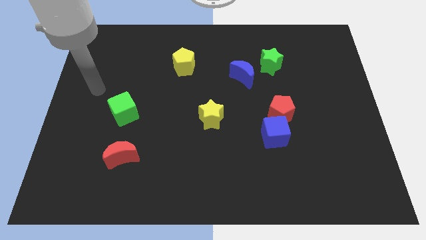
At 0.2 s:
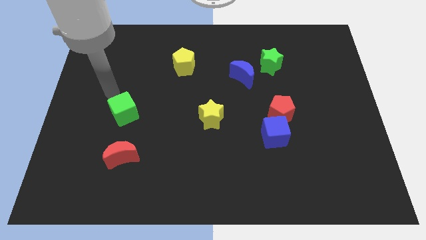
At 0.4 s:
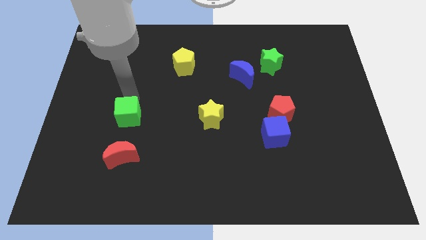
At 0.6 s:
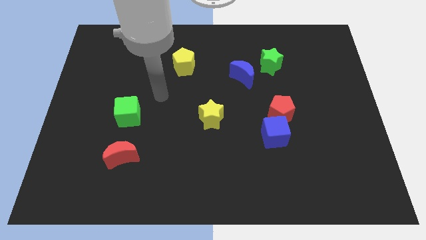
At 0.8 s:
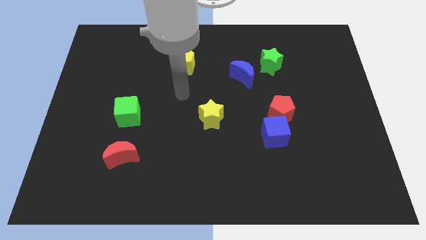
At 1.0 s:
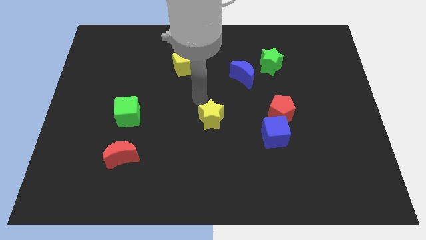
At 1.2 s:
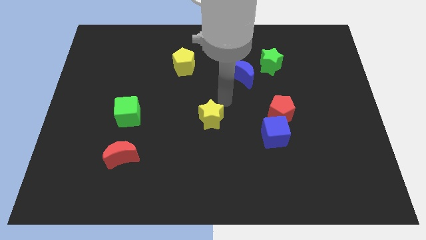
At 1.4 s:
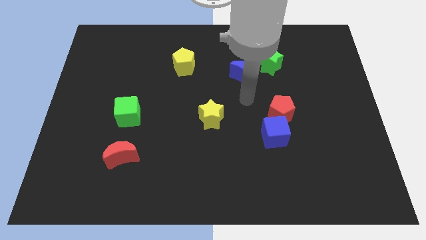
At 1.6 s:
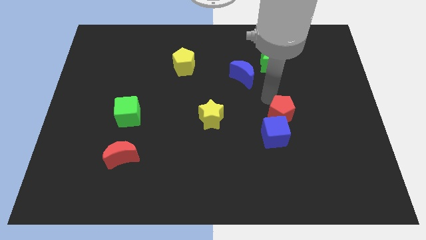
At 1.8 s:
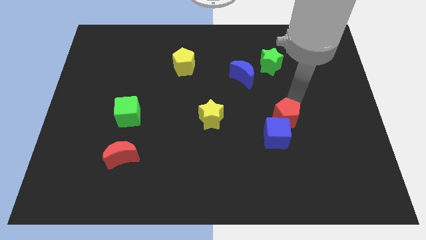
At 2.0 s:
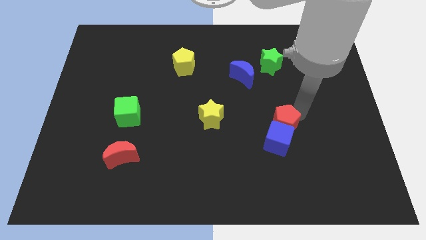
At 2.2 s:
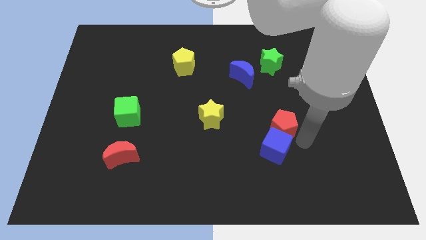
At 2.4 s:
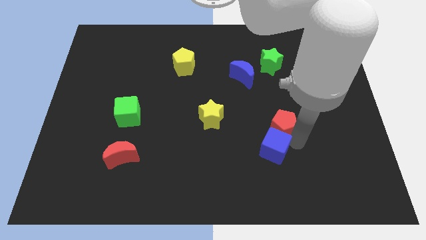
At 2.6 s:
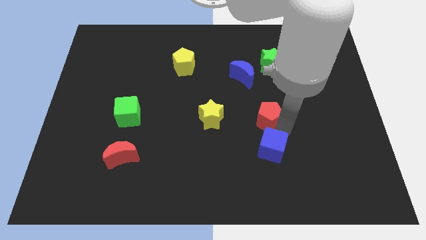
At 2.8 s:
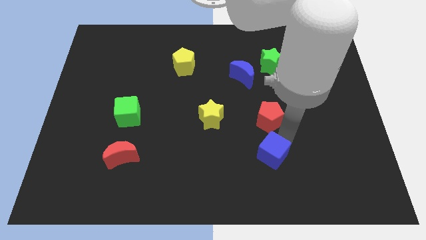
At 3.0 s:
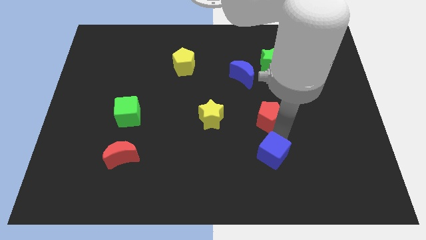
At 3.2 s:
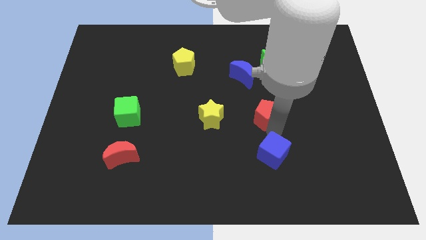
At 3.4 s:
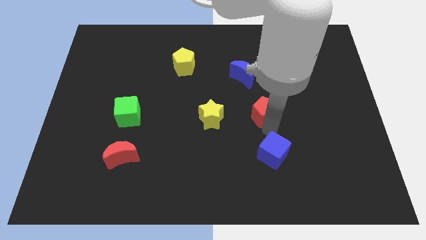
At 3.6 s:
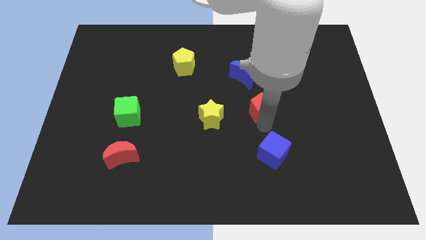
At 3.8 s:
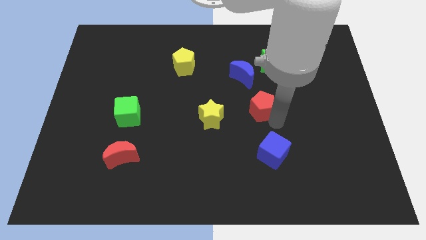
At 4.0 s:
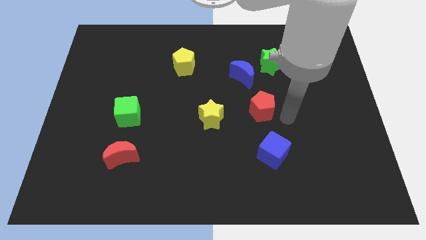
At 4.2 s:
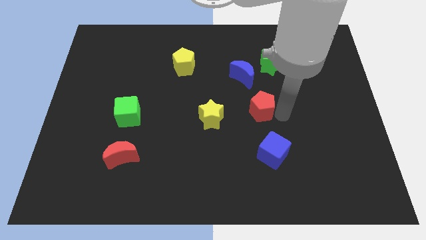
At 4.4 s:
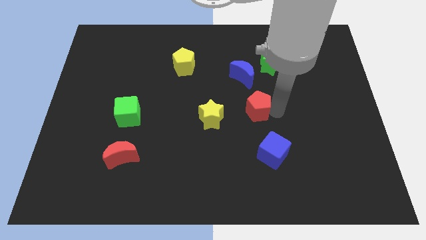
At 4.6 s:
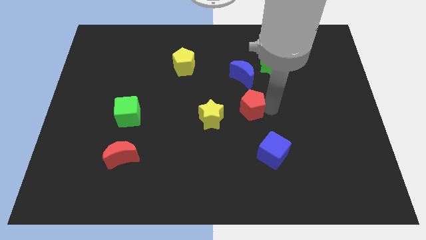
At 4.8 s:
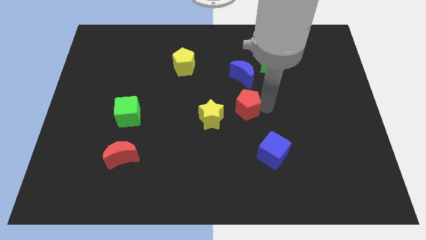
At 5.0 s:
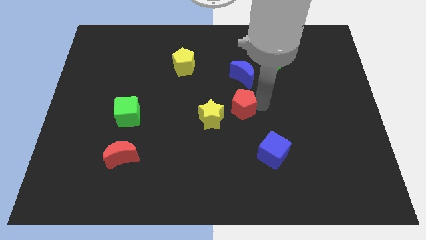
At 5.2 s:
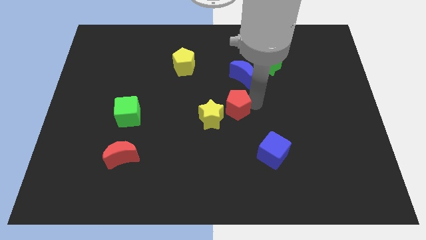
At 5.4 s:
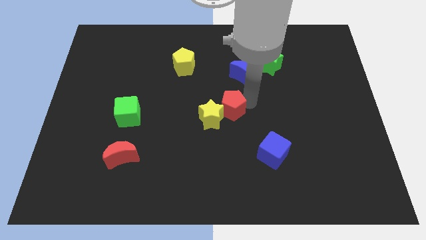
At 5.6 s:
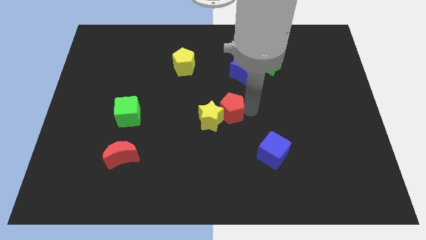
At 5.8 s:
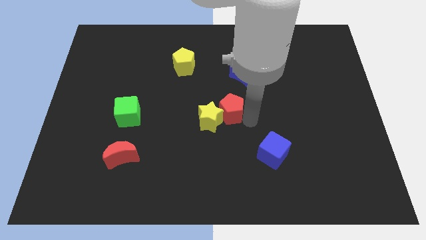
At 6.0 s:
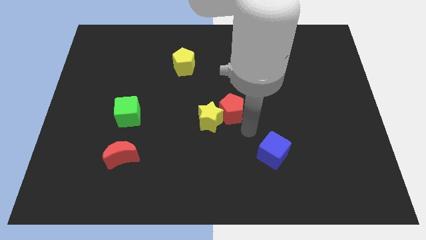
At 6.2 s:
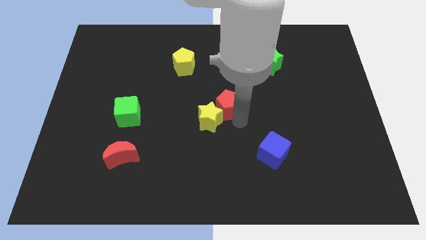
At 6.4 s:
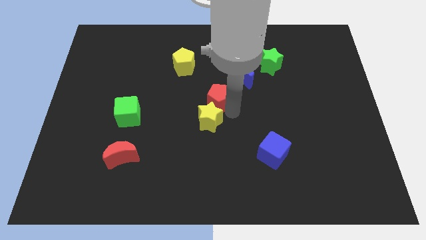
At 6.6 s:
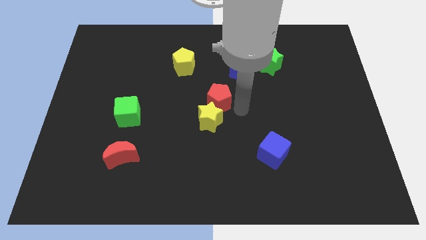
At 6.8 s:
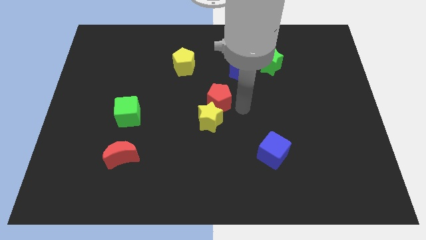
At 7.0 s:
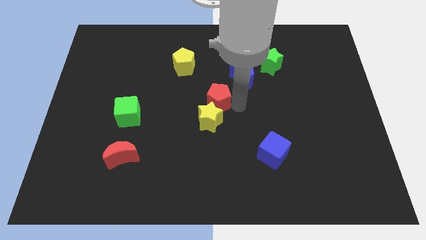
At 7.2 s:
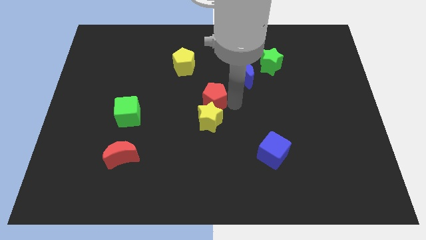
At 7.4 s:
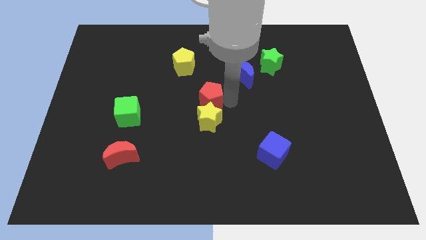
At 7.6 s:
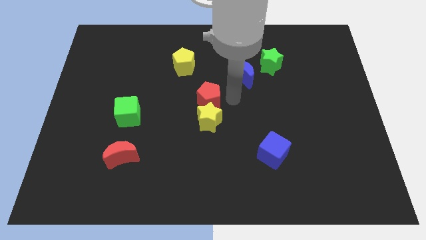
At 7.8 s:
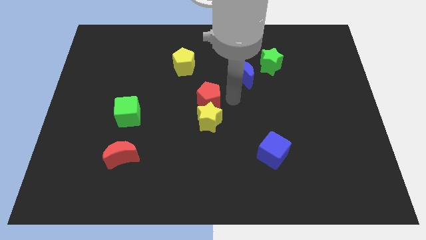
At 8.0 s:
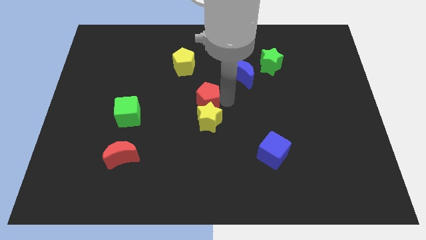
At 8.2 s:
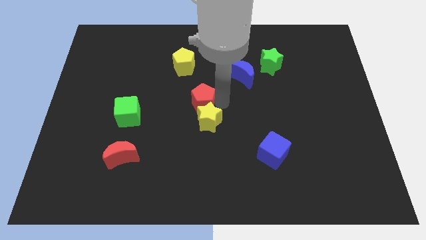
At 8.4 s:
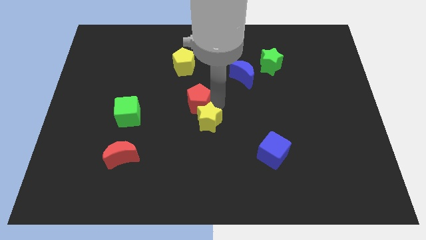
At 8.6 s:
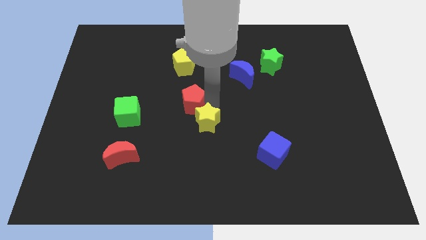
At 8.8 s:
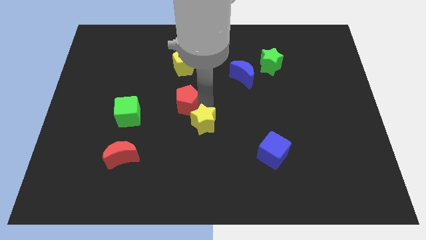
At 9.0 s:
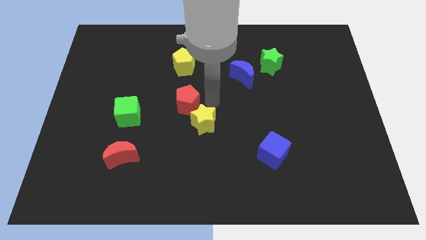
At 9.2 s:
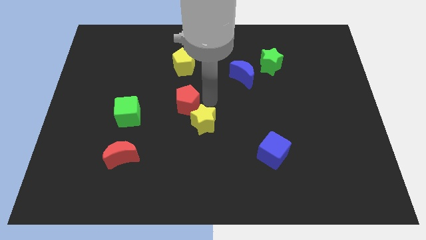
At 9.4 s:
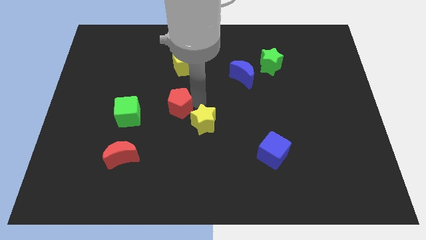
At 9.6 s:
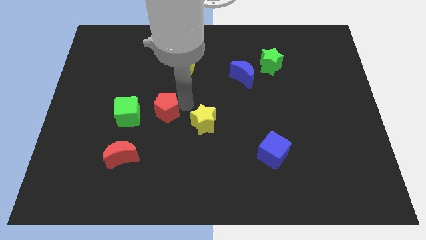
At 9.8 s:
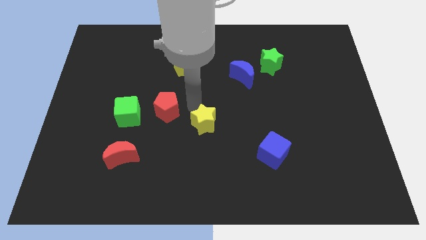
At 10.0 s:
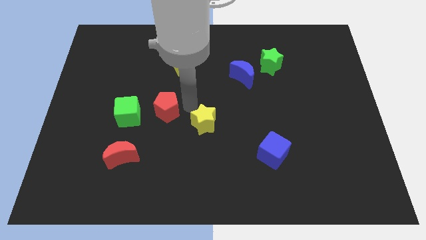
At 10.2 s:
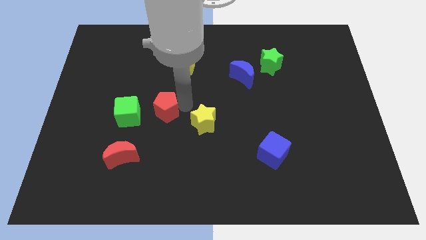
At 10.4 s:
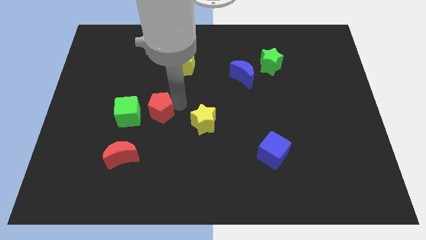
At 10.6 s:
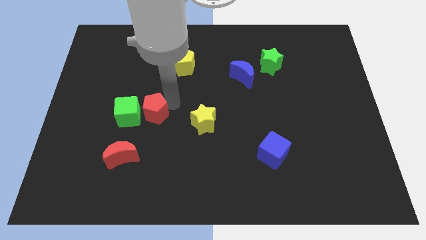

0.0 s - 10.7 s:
slide the red pentagon close to the green cube

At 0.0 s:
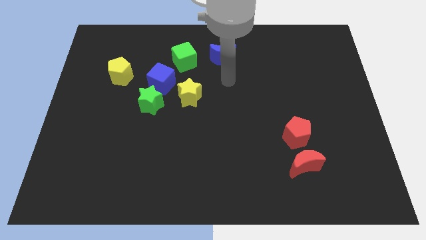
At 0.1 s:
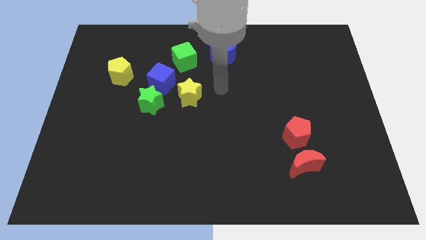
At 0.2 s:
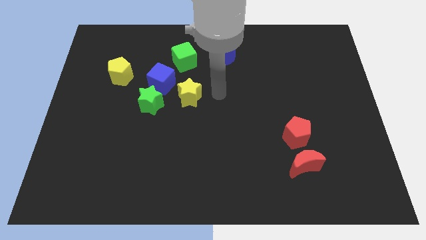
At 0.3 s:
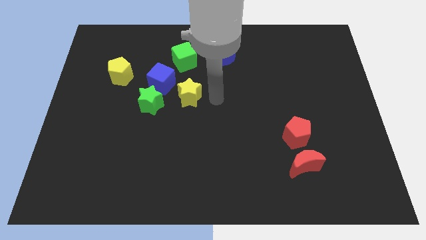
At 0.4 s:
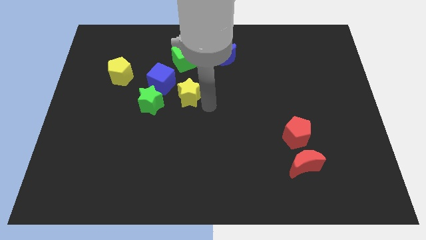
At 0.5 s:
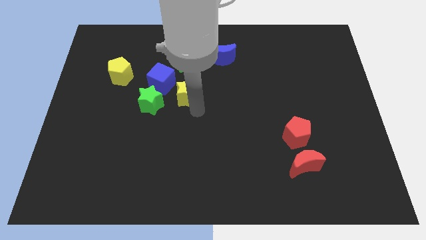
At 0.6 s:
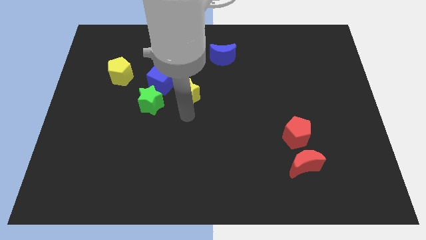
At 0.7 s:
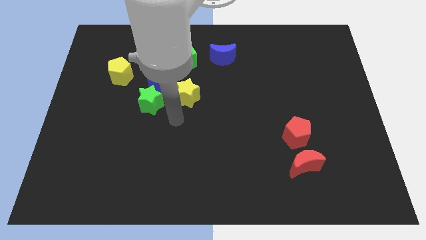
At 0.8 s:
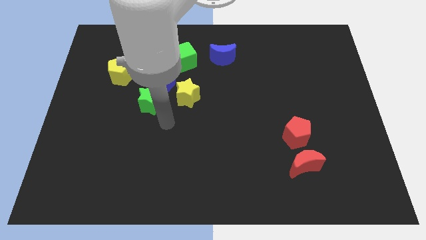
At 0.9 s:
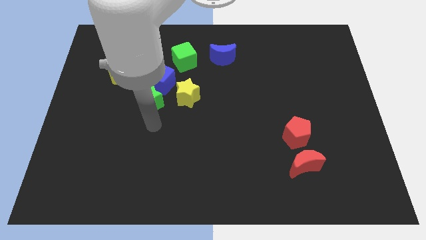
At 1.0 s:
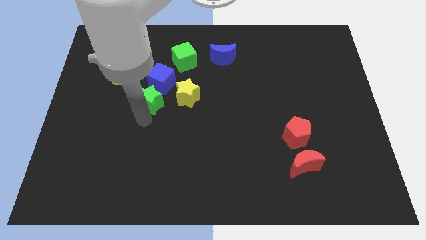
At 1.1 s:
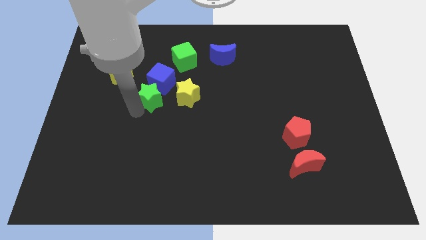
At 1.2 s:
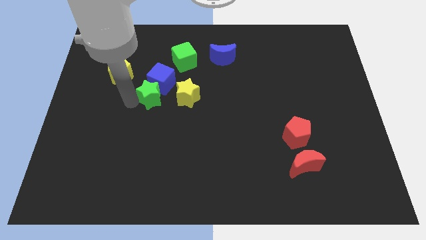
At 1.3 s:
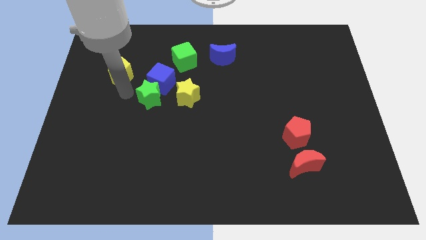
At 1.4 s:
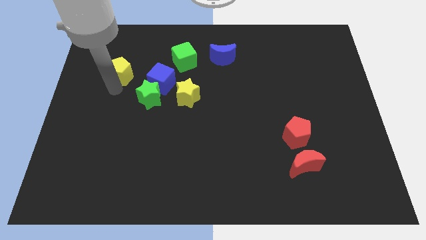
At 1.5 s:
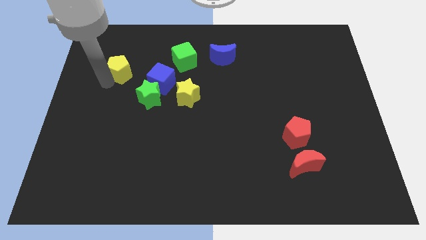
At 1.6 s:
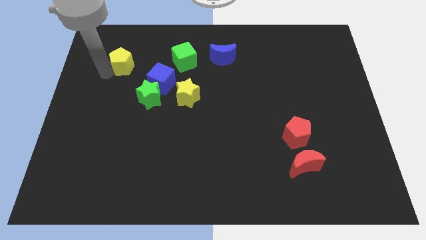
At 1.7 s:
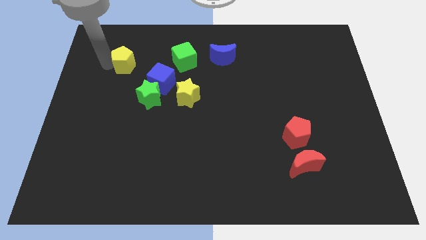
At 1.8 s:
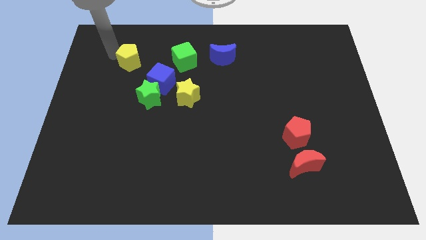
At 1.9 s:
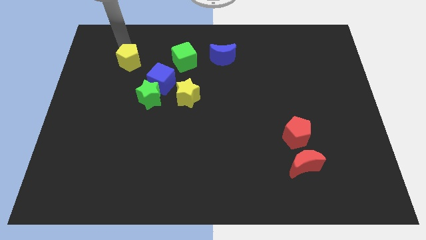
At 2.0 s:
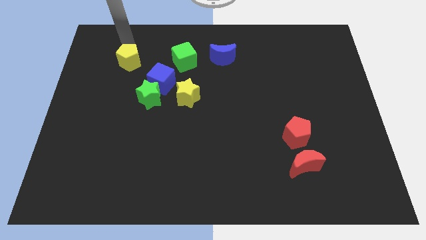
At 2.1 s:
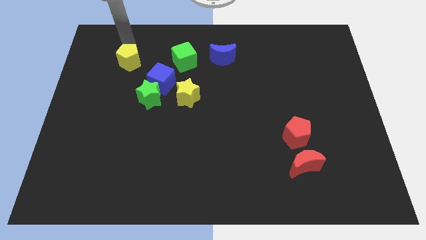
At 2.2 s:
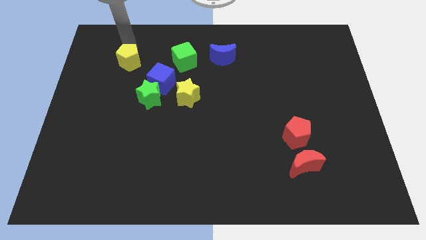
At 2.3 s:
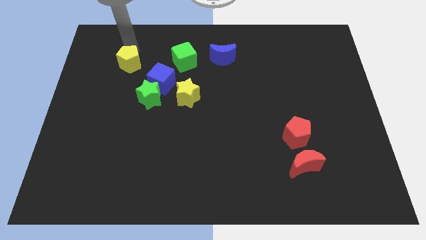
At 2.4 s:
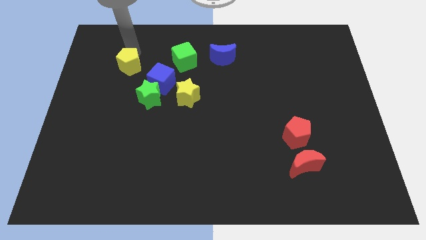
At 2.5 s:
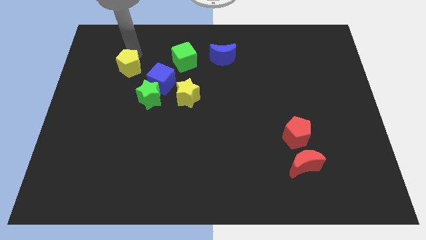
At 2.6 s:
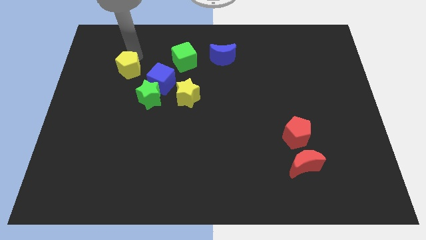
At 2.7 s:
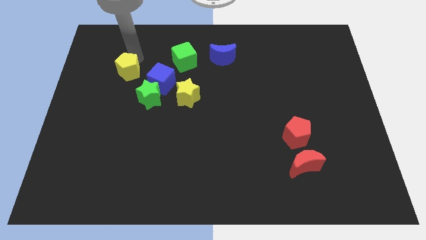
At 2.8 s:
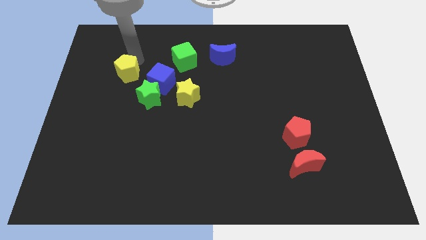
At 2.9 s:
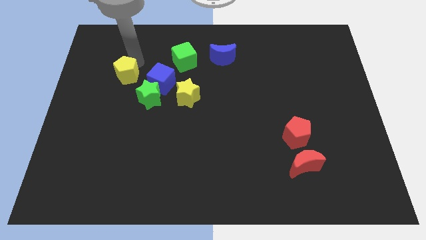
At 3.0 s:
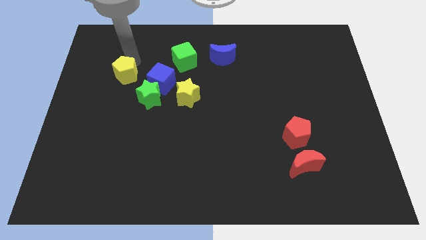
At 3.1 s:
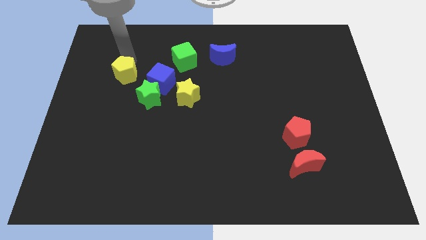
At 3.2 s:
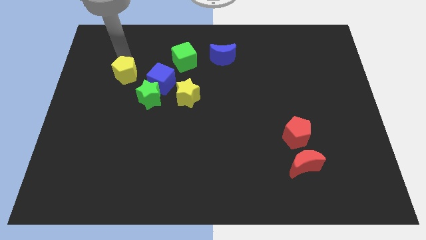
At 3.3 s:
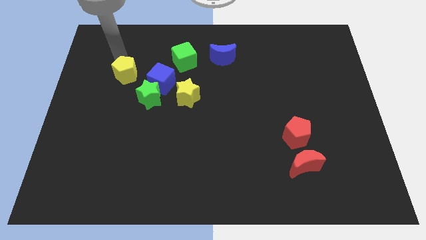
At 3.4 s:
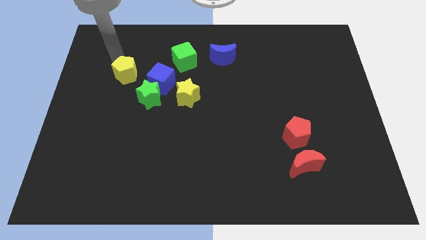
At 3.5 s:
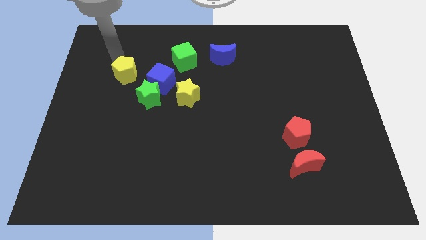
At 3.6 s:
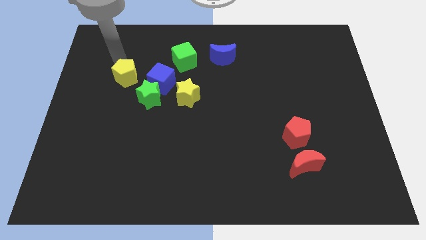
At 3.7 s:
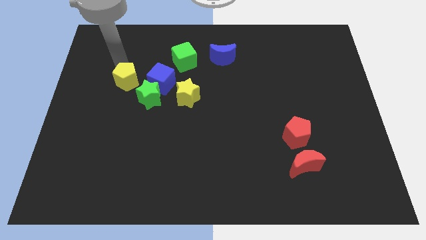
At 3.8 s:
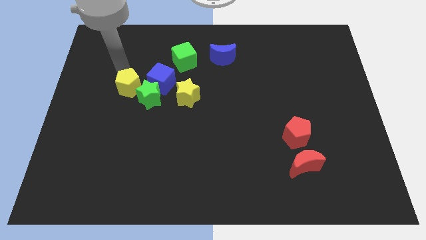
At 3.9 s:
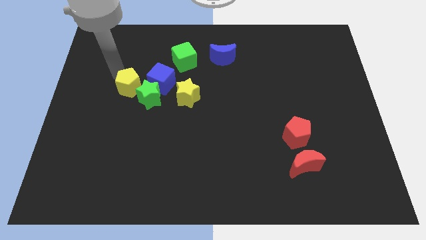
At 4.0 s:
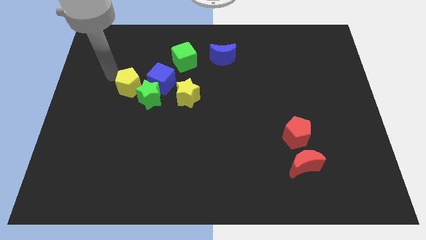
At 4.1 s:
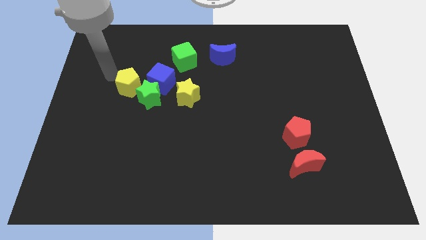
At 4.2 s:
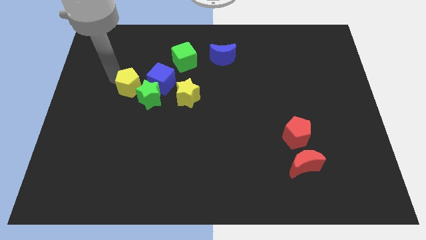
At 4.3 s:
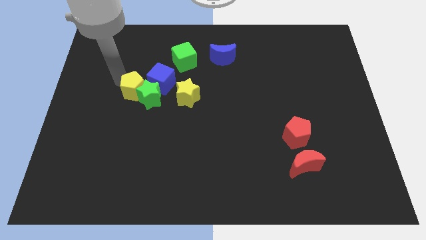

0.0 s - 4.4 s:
slide the yellow pentagon to the green star
